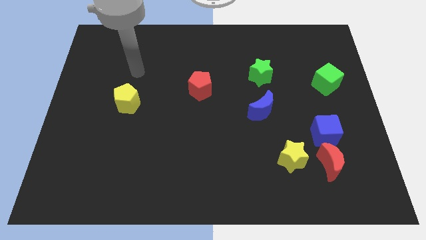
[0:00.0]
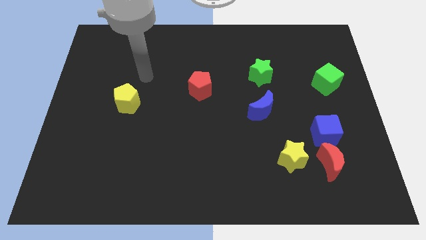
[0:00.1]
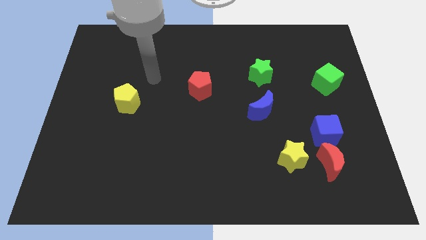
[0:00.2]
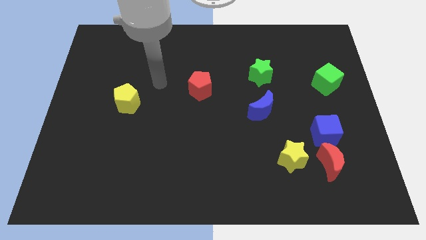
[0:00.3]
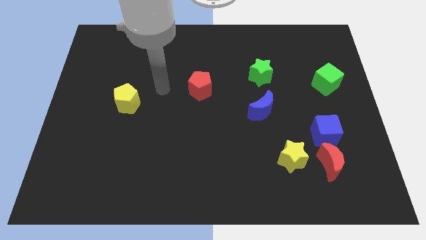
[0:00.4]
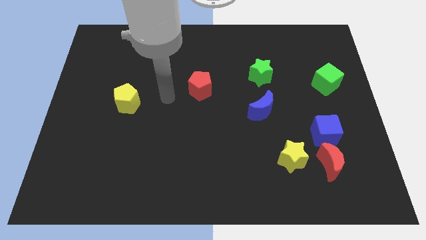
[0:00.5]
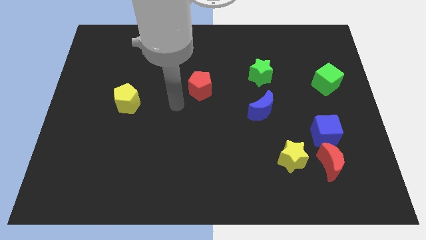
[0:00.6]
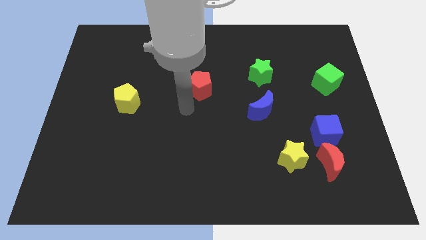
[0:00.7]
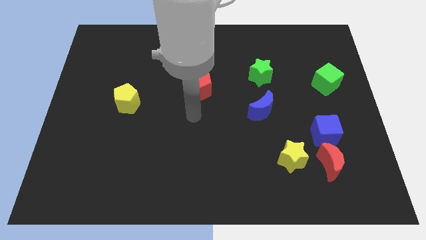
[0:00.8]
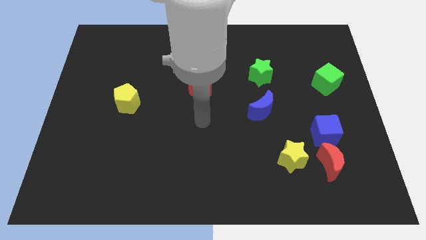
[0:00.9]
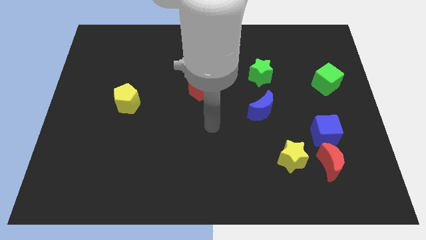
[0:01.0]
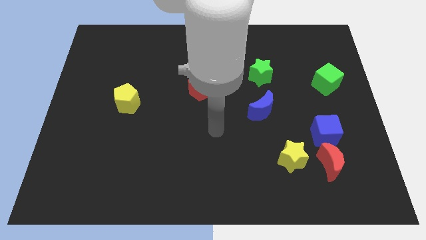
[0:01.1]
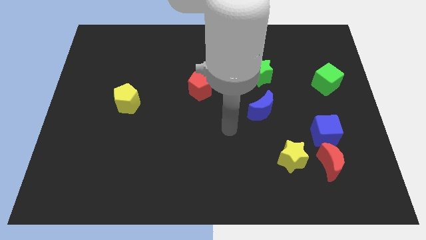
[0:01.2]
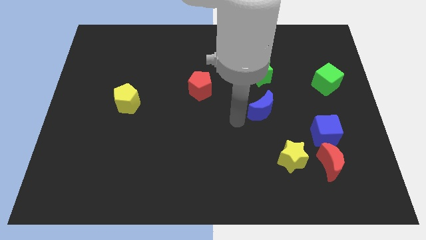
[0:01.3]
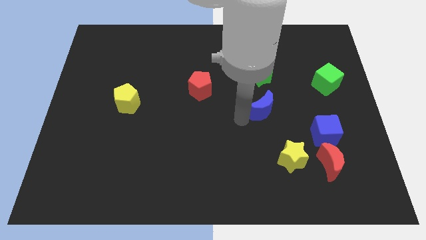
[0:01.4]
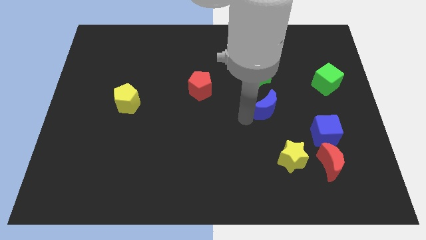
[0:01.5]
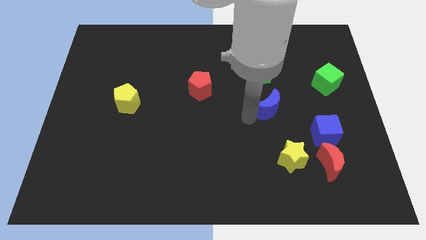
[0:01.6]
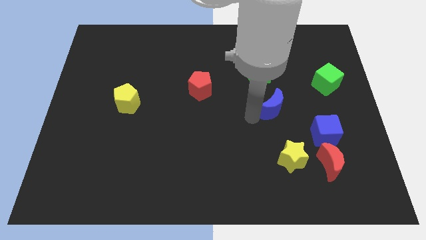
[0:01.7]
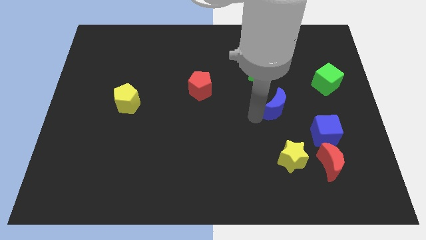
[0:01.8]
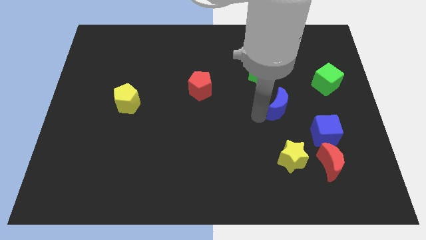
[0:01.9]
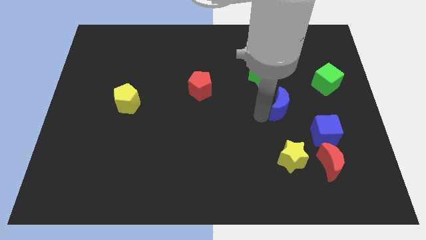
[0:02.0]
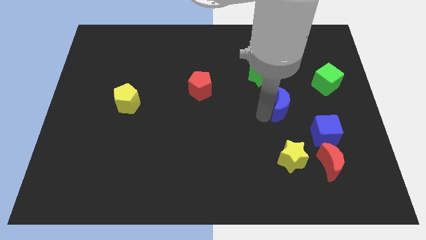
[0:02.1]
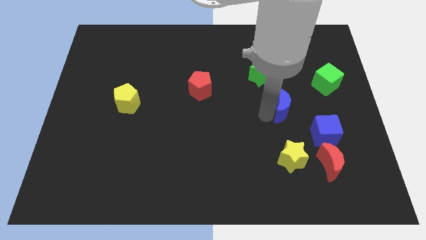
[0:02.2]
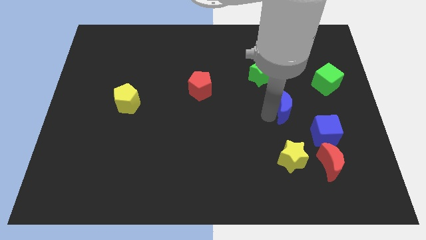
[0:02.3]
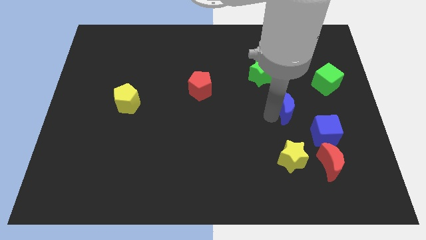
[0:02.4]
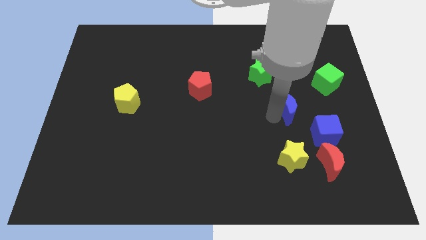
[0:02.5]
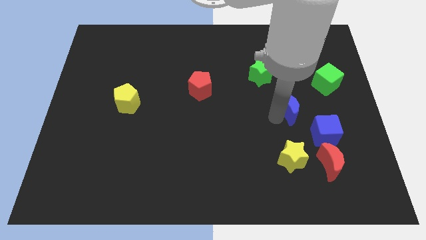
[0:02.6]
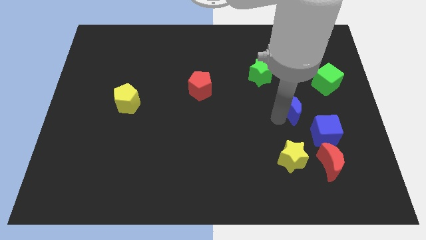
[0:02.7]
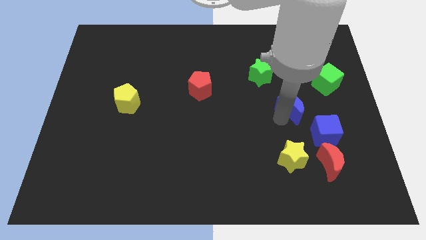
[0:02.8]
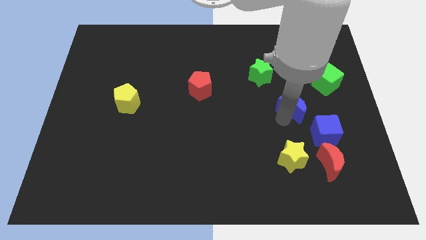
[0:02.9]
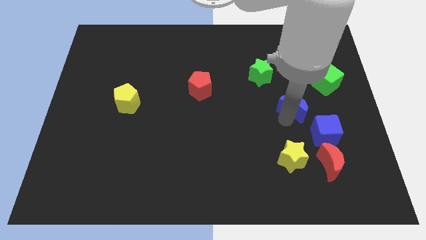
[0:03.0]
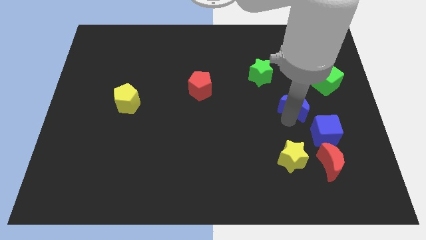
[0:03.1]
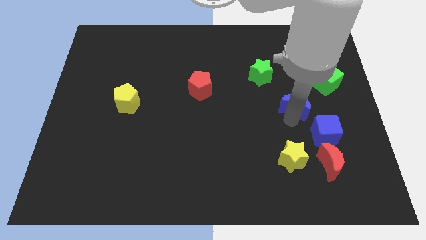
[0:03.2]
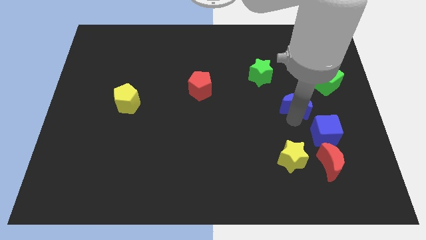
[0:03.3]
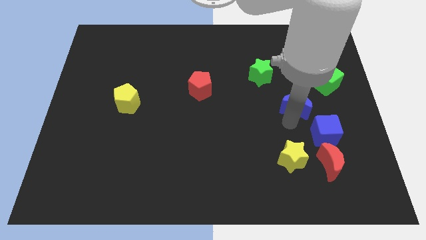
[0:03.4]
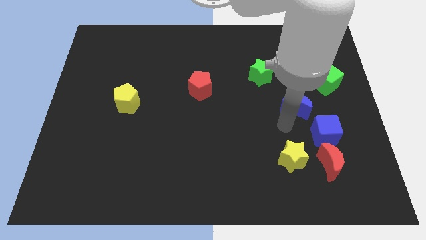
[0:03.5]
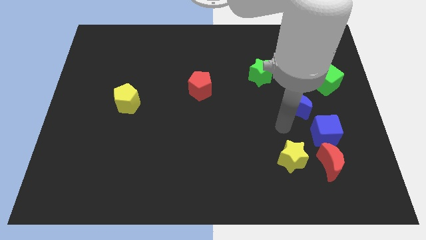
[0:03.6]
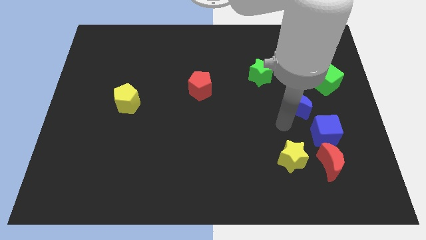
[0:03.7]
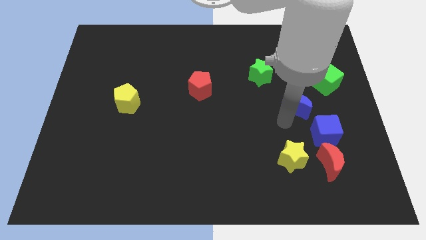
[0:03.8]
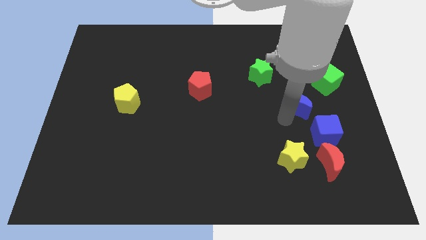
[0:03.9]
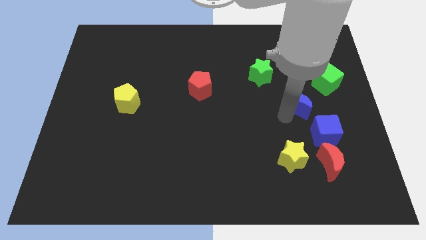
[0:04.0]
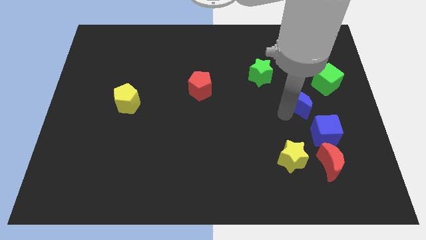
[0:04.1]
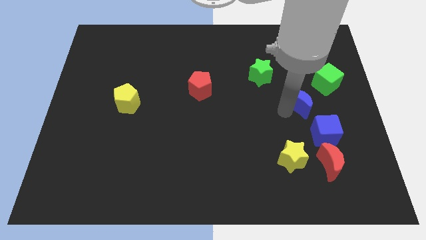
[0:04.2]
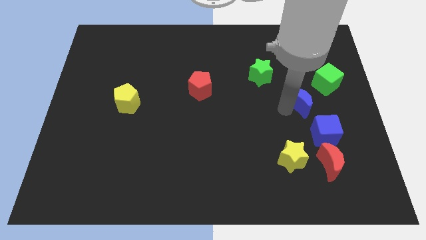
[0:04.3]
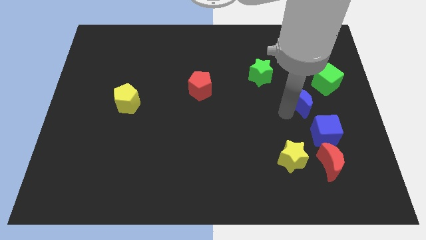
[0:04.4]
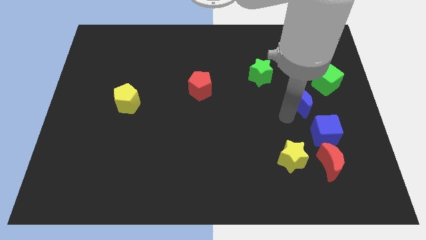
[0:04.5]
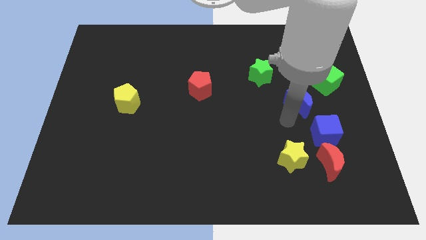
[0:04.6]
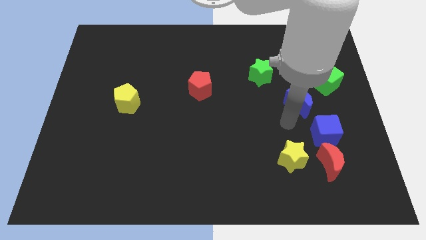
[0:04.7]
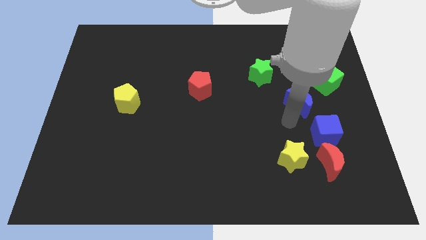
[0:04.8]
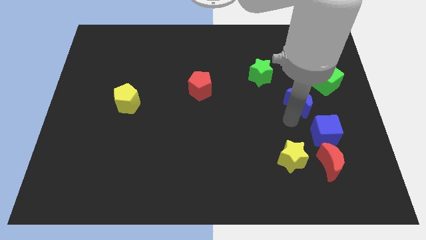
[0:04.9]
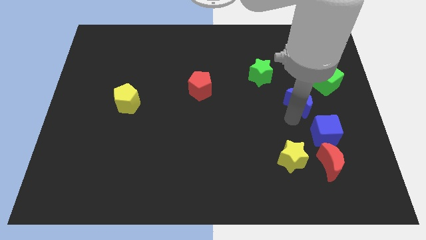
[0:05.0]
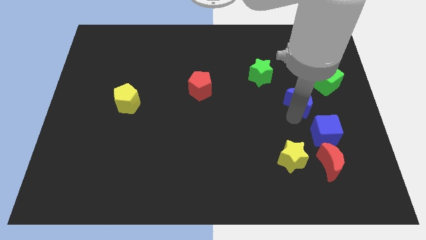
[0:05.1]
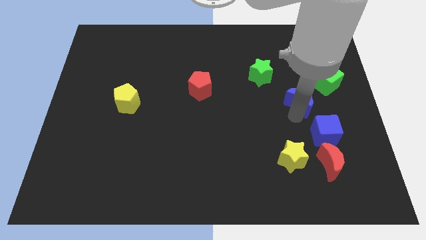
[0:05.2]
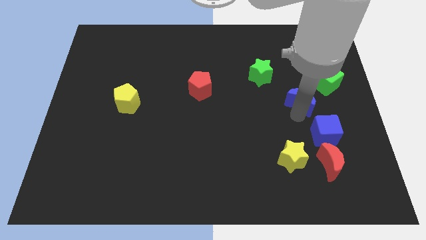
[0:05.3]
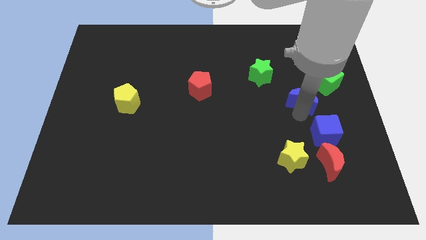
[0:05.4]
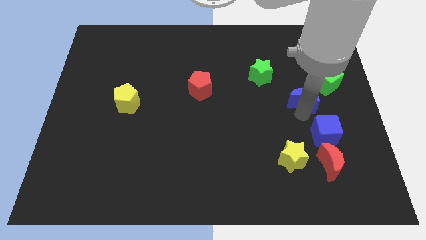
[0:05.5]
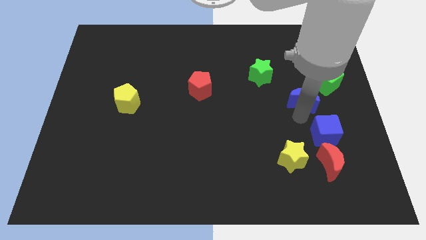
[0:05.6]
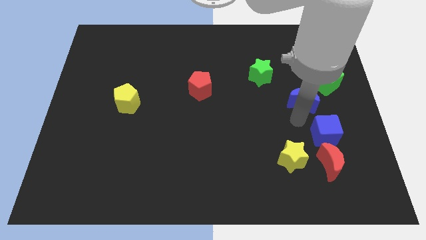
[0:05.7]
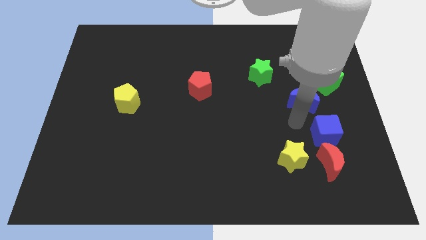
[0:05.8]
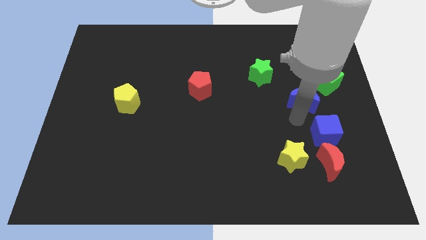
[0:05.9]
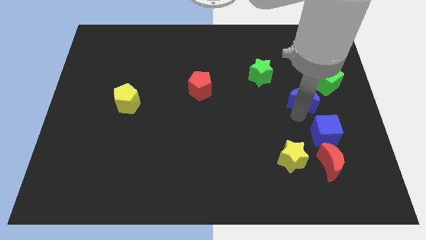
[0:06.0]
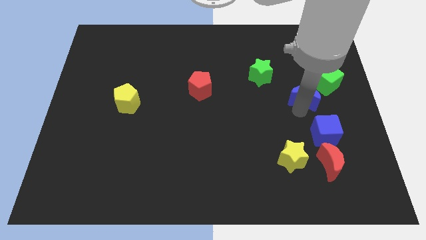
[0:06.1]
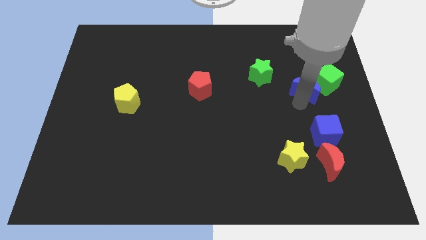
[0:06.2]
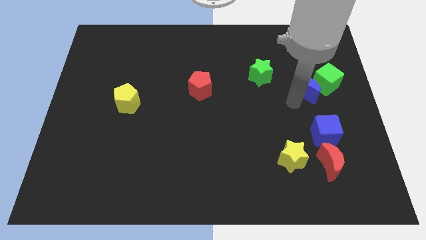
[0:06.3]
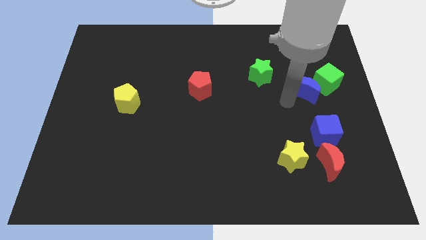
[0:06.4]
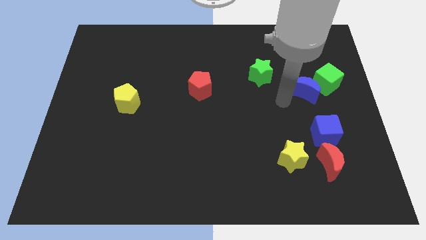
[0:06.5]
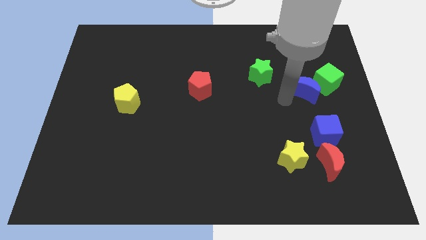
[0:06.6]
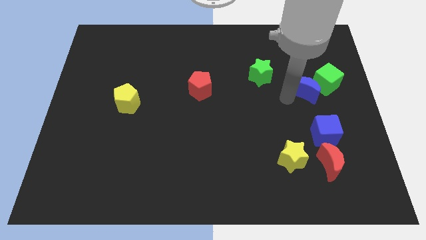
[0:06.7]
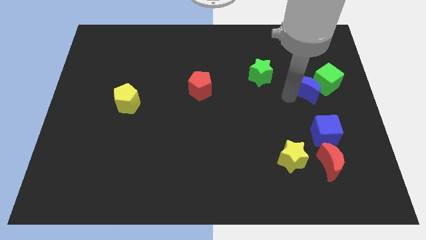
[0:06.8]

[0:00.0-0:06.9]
push the blue moon towards the green cube
